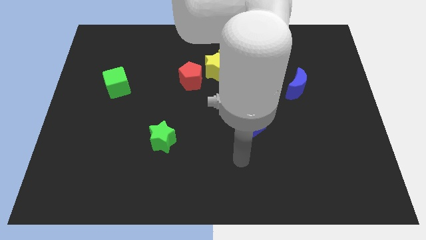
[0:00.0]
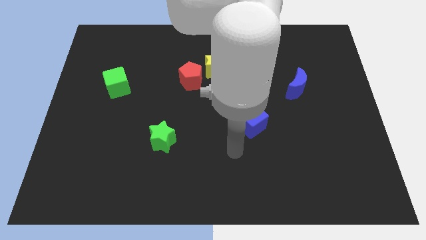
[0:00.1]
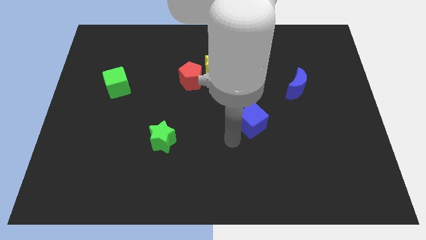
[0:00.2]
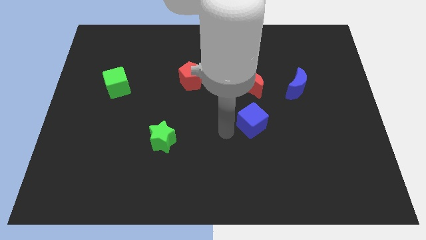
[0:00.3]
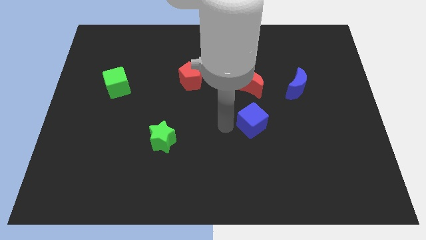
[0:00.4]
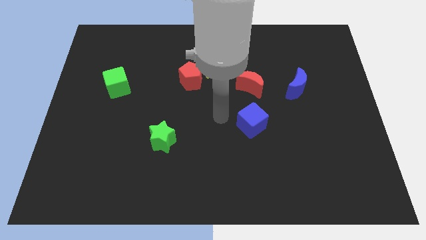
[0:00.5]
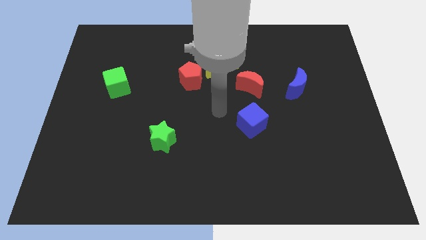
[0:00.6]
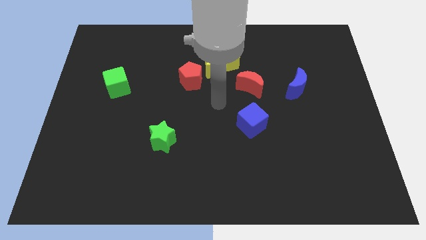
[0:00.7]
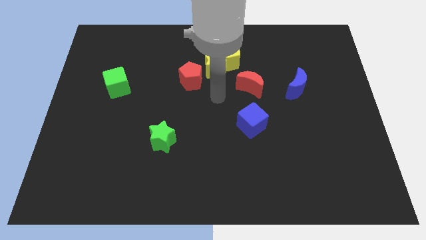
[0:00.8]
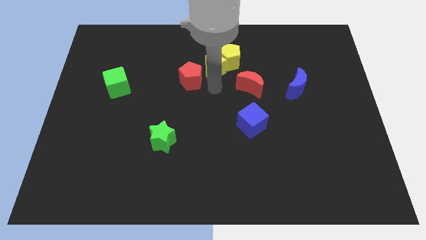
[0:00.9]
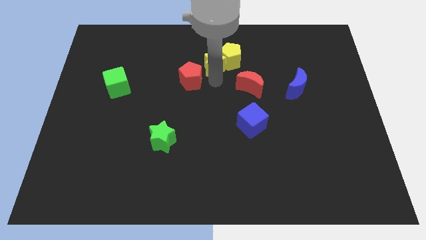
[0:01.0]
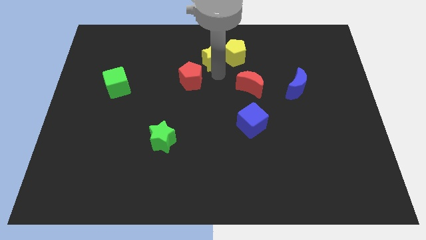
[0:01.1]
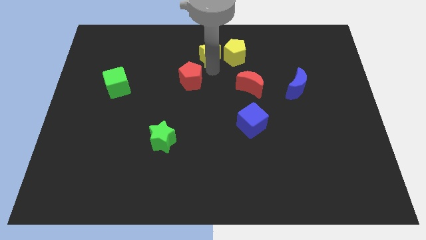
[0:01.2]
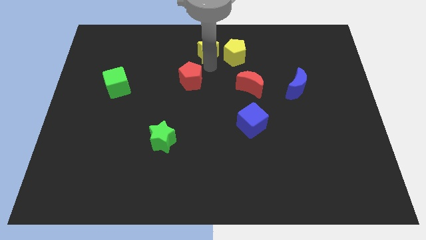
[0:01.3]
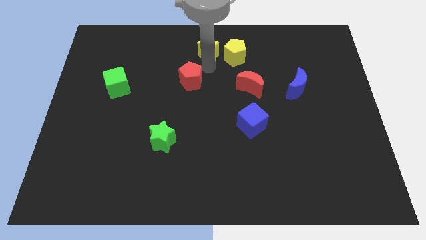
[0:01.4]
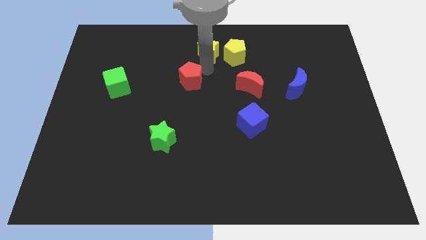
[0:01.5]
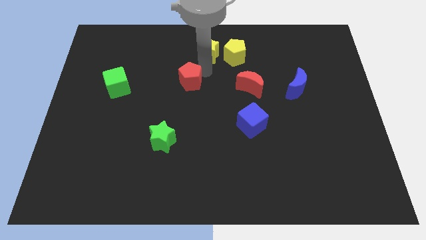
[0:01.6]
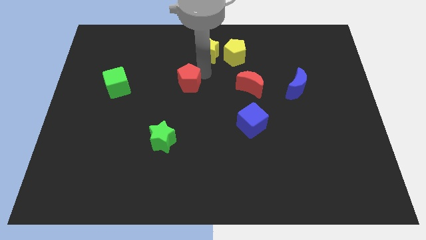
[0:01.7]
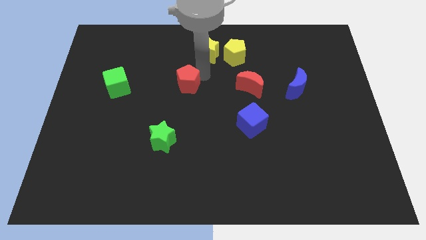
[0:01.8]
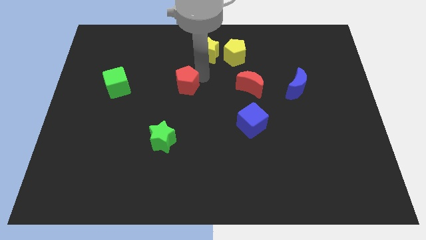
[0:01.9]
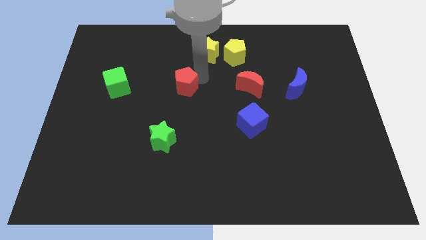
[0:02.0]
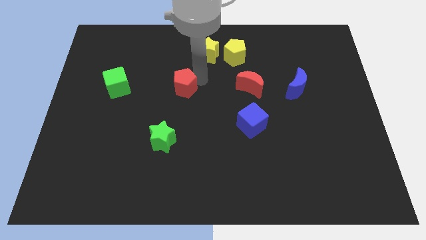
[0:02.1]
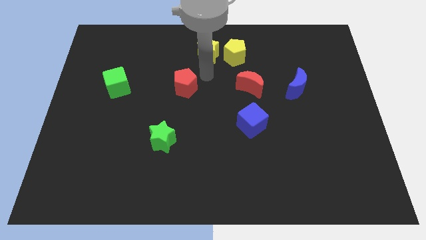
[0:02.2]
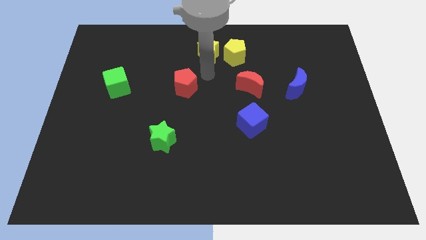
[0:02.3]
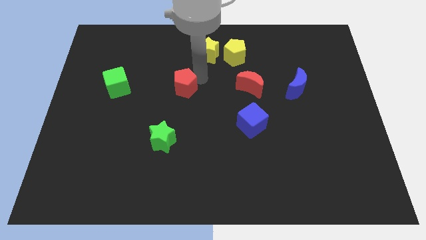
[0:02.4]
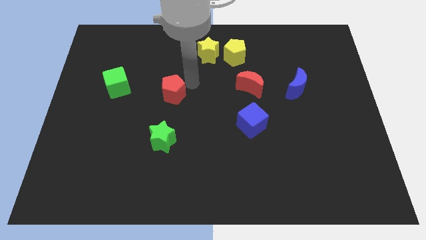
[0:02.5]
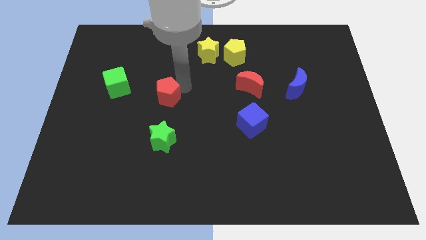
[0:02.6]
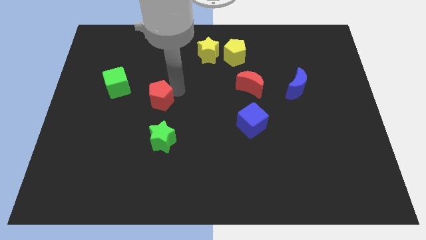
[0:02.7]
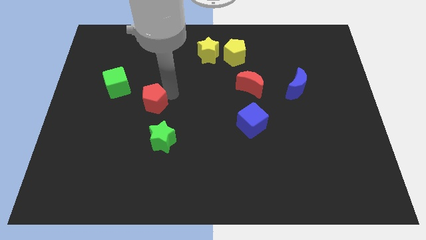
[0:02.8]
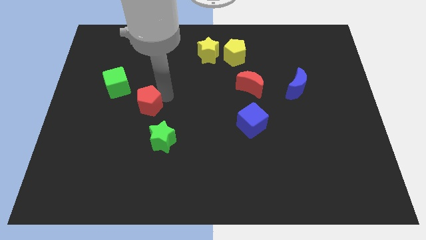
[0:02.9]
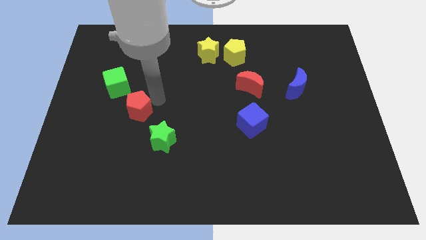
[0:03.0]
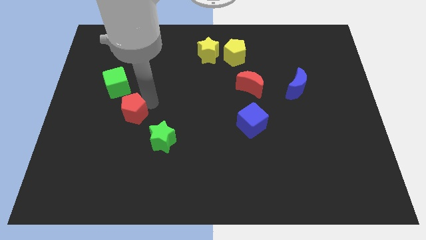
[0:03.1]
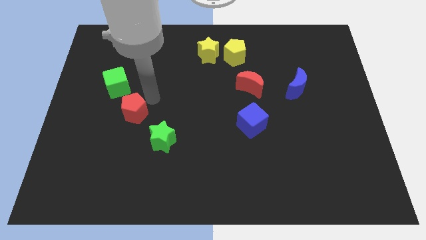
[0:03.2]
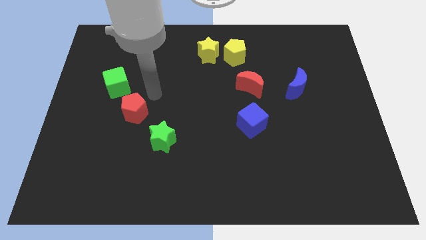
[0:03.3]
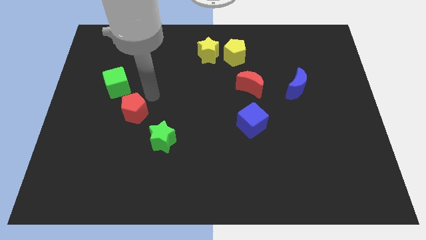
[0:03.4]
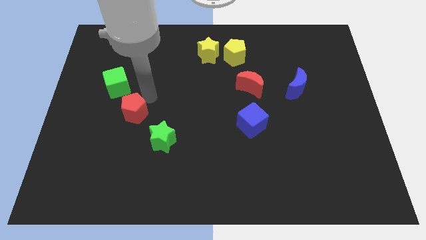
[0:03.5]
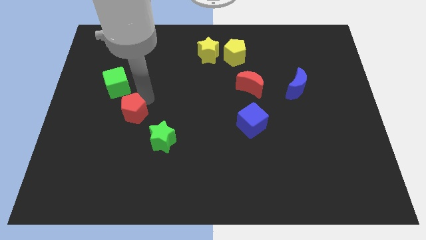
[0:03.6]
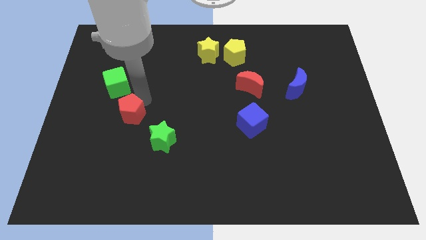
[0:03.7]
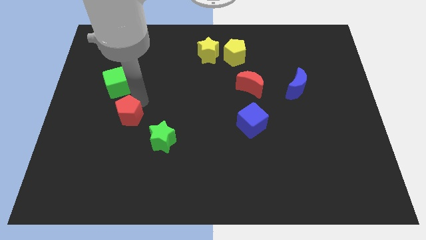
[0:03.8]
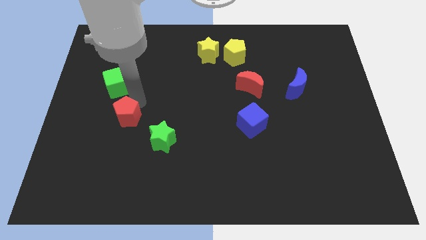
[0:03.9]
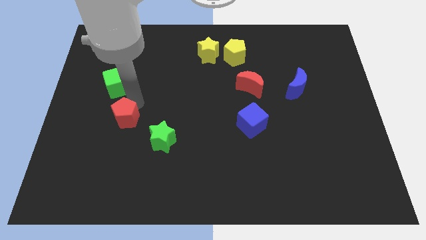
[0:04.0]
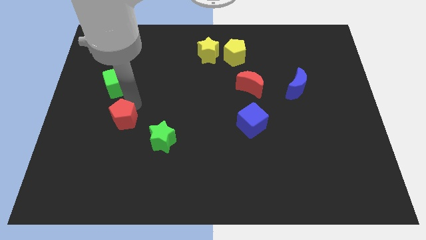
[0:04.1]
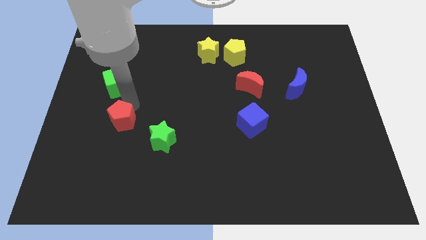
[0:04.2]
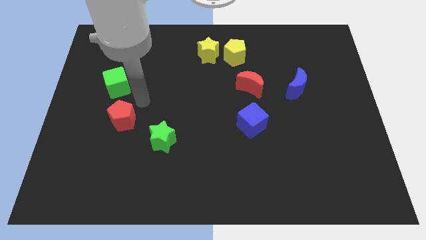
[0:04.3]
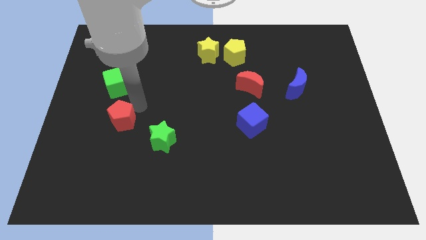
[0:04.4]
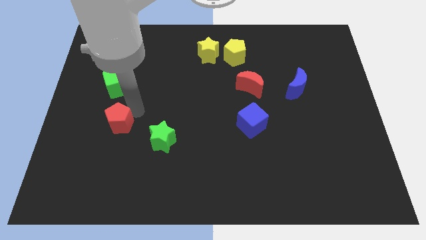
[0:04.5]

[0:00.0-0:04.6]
slide the red pentagon diagonally downwards and left

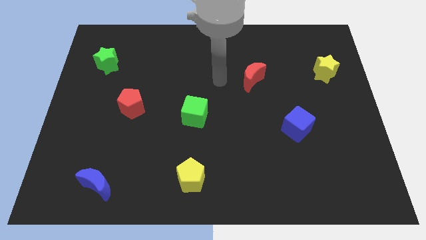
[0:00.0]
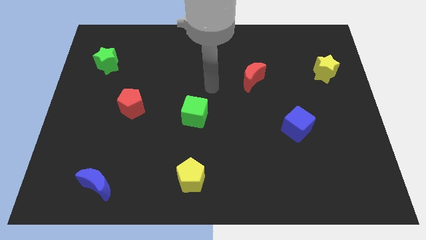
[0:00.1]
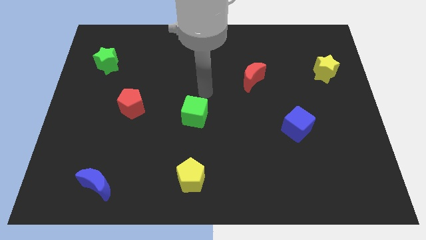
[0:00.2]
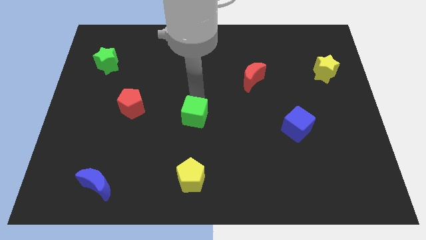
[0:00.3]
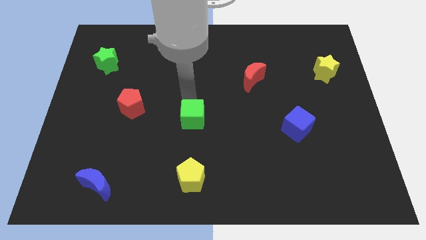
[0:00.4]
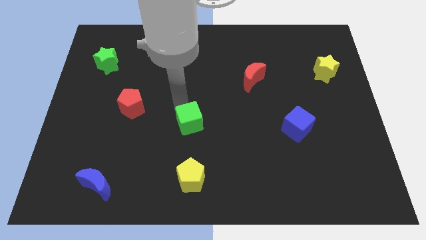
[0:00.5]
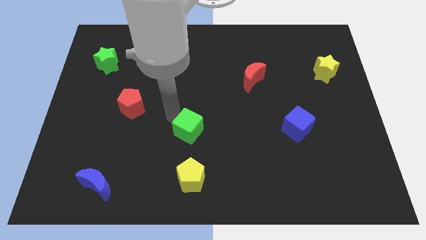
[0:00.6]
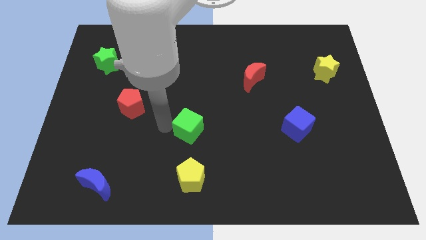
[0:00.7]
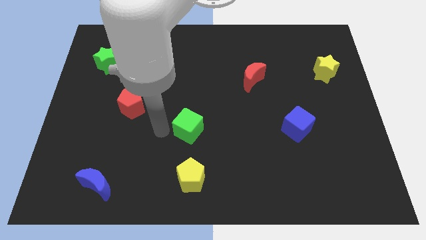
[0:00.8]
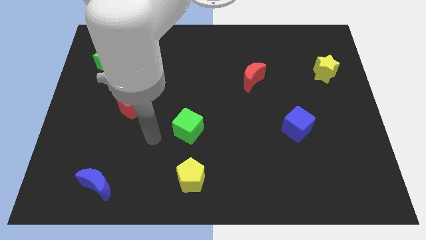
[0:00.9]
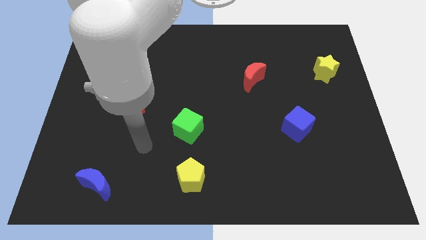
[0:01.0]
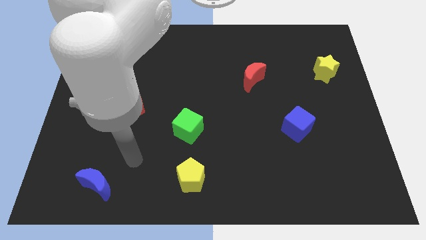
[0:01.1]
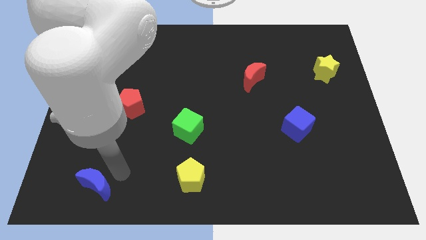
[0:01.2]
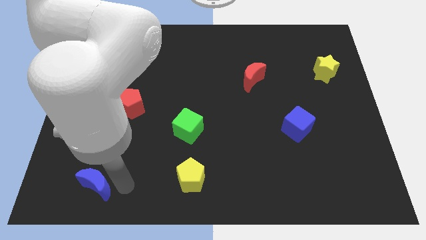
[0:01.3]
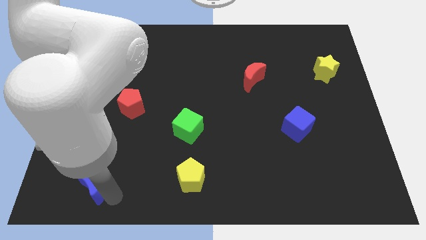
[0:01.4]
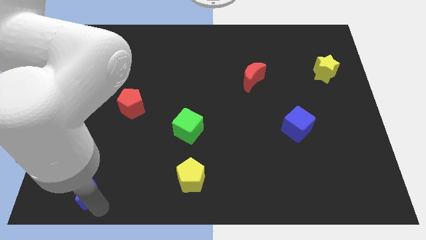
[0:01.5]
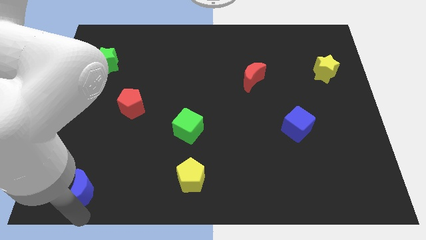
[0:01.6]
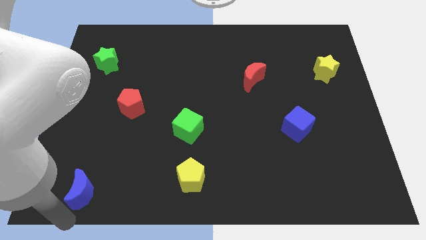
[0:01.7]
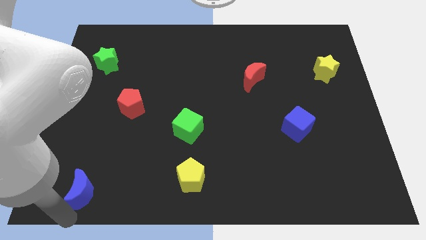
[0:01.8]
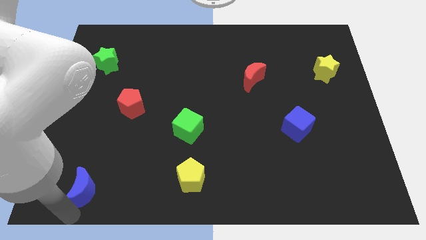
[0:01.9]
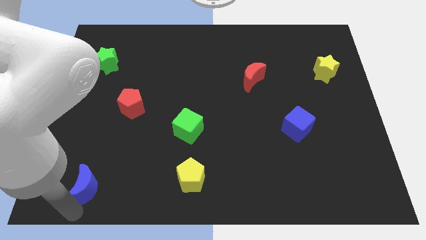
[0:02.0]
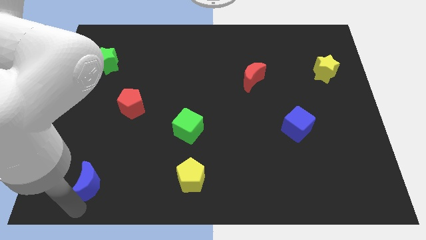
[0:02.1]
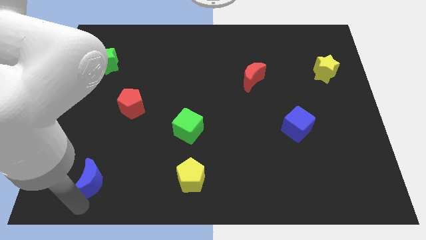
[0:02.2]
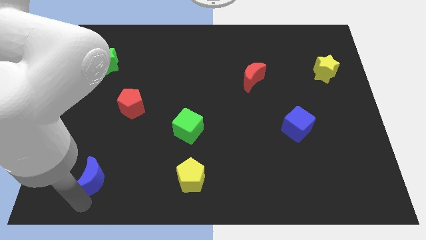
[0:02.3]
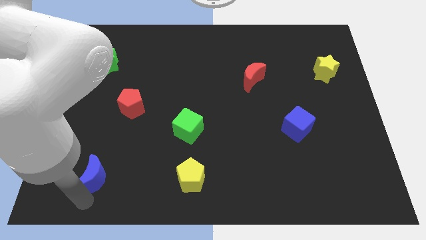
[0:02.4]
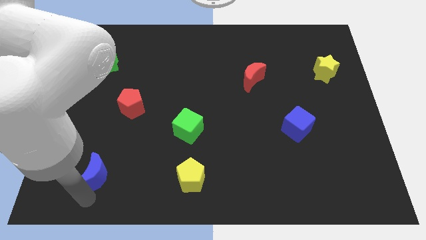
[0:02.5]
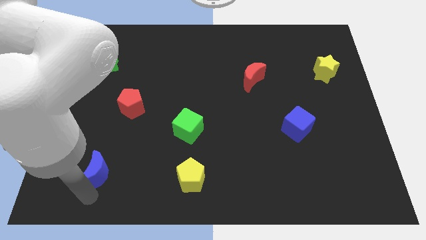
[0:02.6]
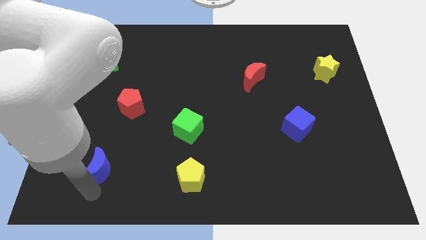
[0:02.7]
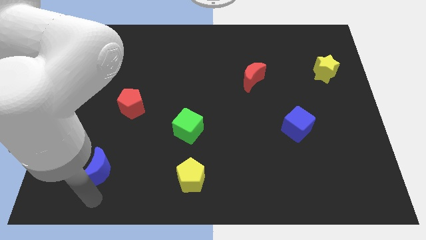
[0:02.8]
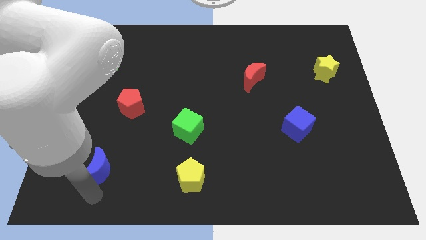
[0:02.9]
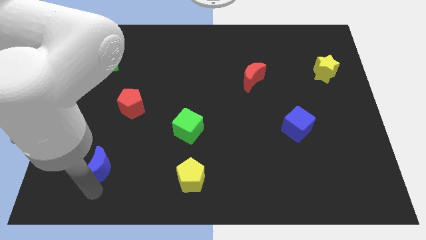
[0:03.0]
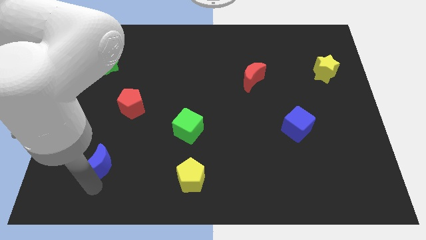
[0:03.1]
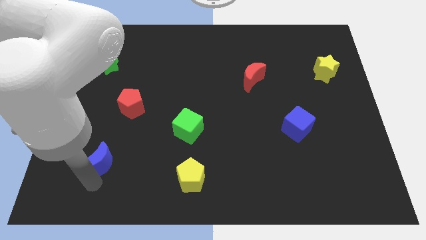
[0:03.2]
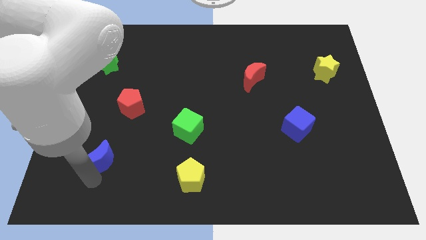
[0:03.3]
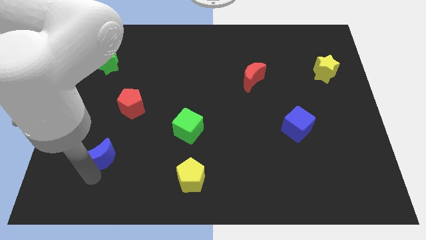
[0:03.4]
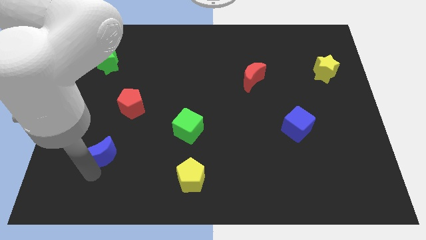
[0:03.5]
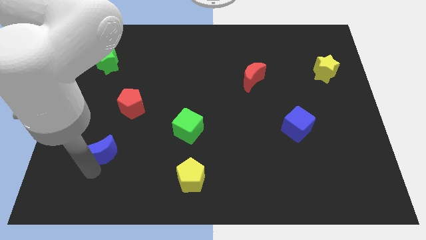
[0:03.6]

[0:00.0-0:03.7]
slightly move the blue moon up
